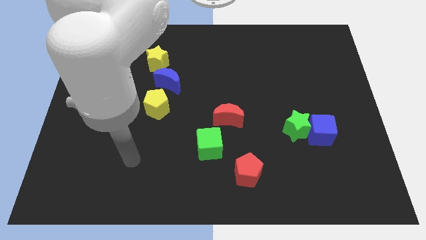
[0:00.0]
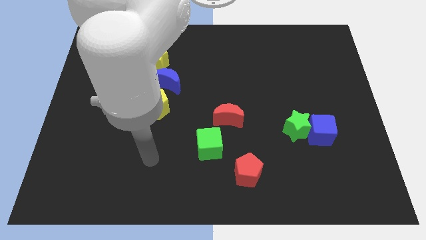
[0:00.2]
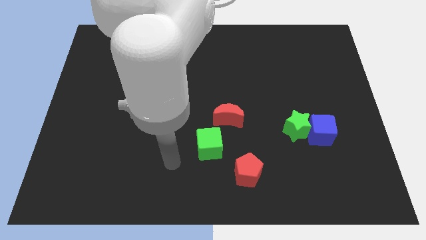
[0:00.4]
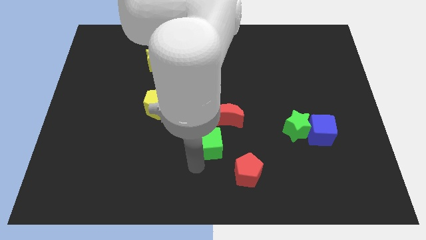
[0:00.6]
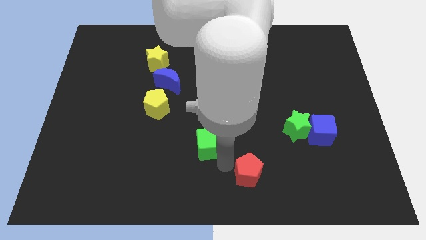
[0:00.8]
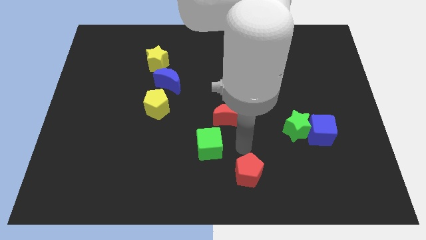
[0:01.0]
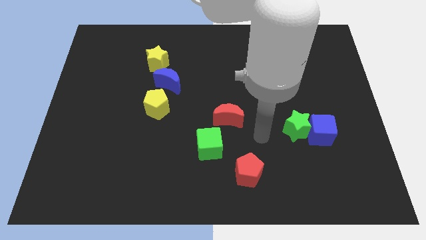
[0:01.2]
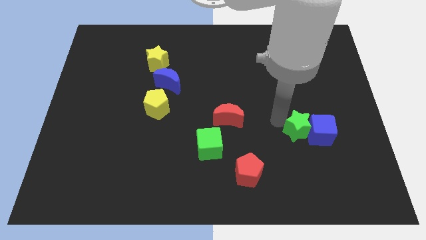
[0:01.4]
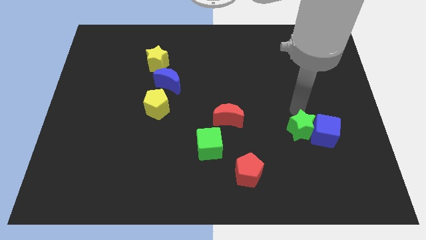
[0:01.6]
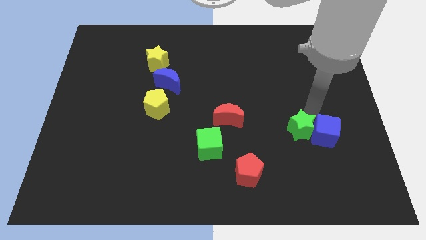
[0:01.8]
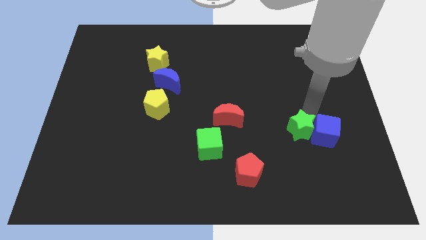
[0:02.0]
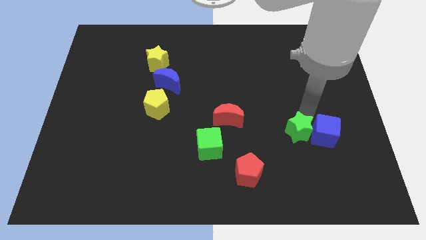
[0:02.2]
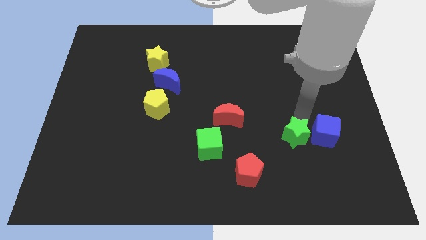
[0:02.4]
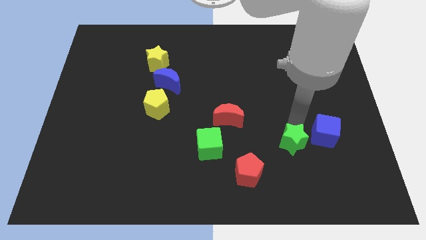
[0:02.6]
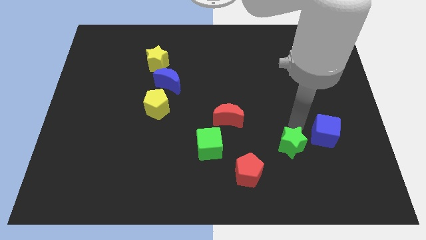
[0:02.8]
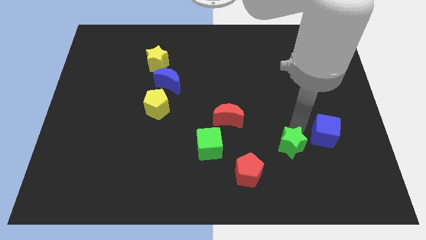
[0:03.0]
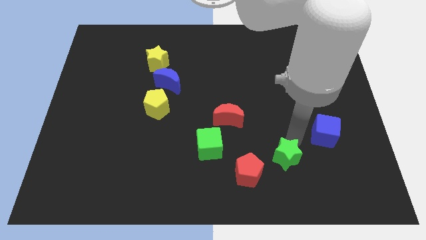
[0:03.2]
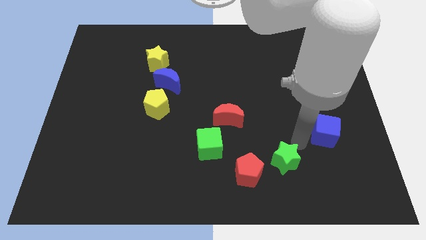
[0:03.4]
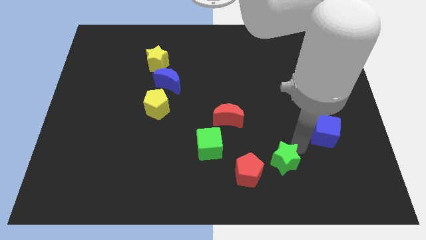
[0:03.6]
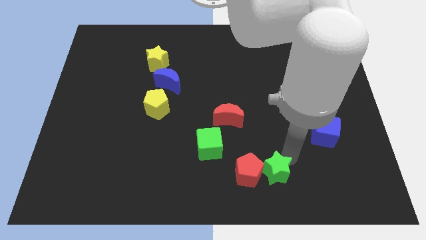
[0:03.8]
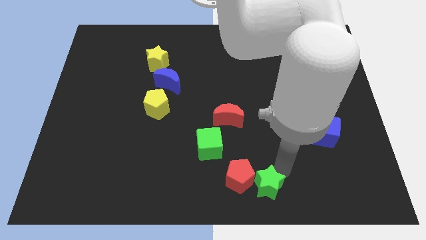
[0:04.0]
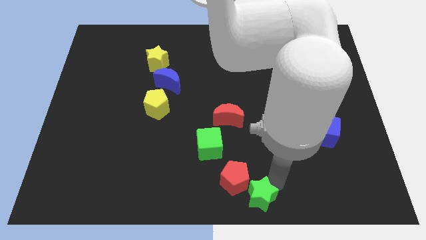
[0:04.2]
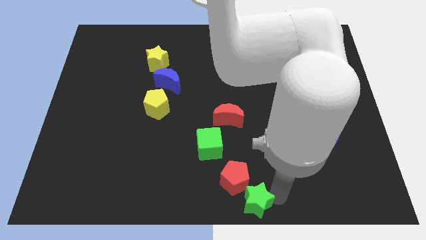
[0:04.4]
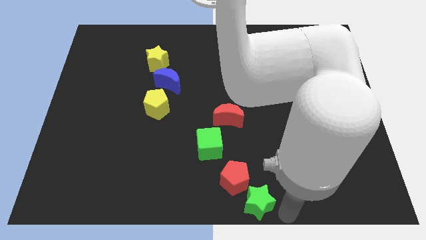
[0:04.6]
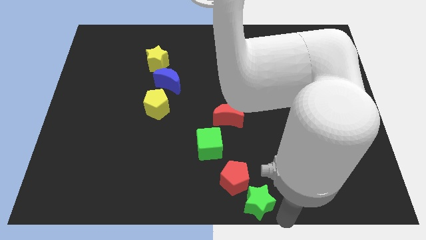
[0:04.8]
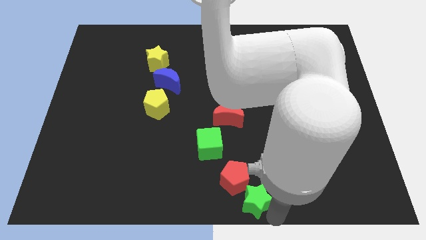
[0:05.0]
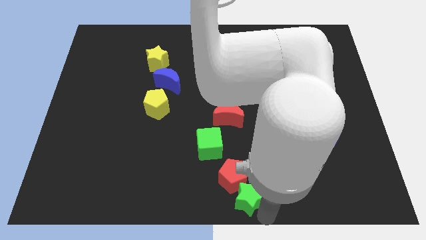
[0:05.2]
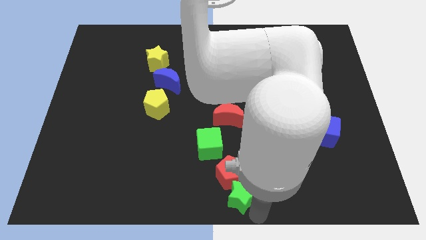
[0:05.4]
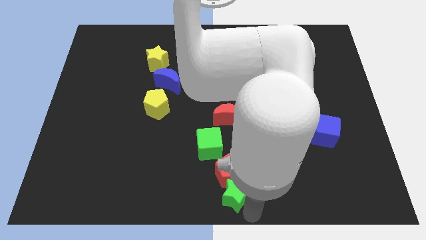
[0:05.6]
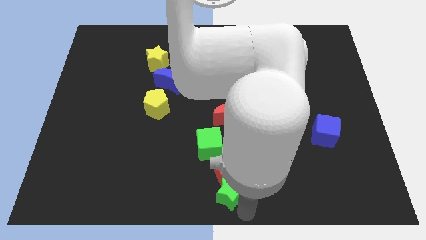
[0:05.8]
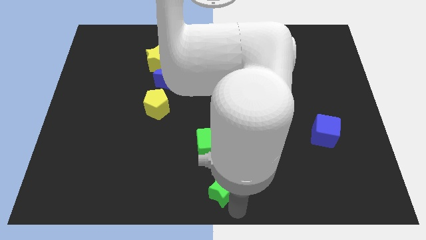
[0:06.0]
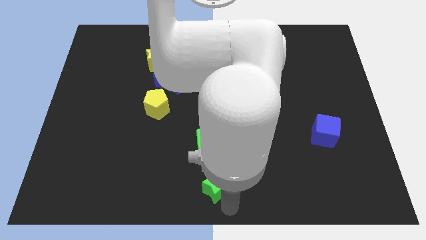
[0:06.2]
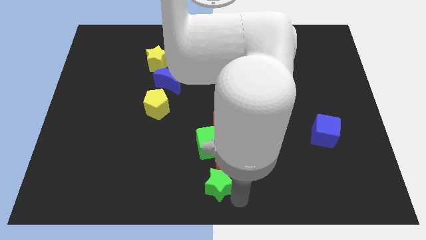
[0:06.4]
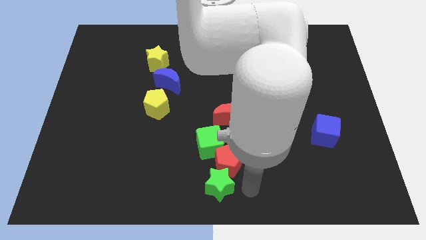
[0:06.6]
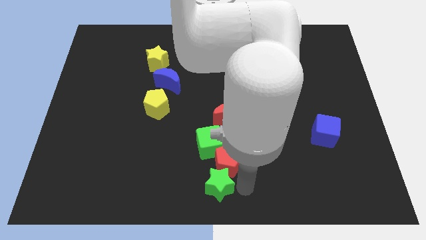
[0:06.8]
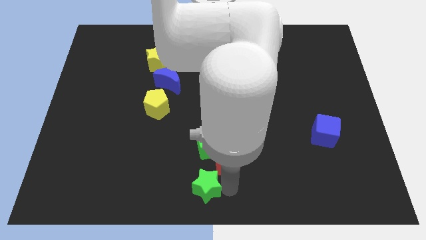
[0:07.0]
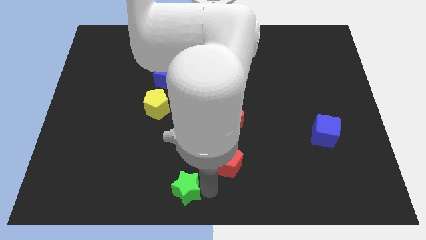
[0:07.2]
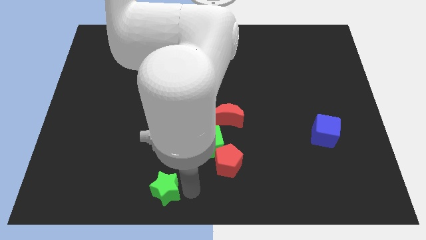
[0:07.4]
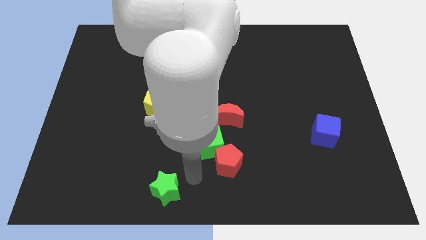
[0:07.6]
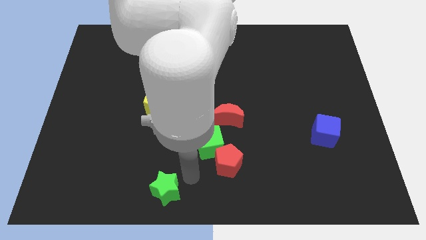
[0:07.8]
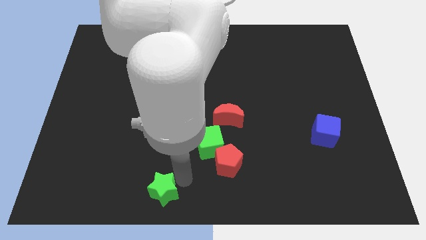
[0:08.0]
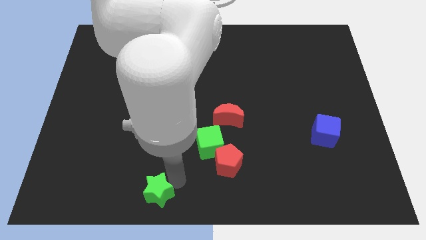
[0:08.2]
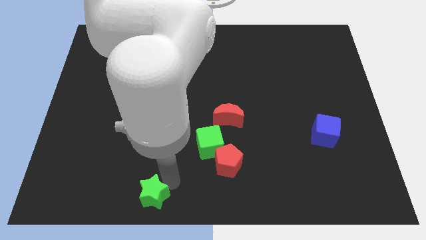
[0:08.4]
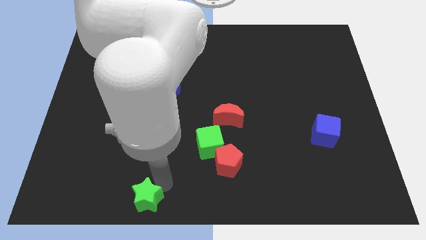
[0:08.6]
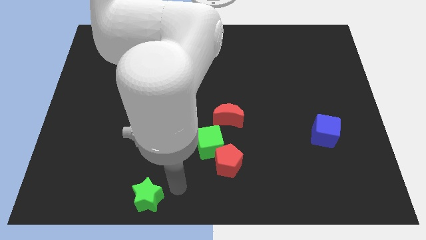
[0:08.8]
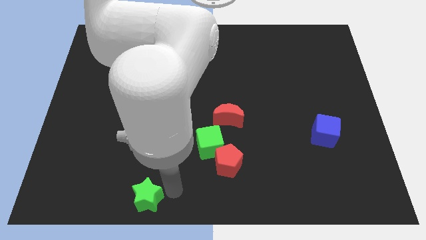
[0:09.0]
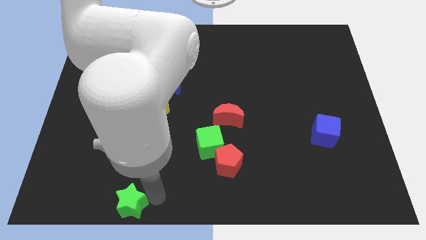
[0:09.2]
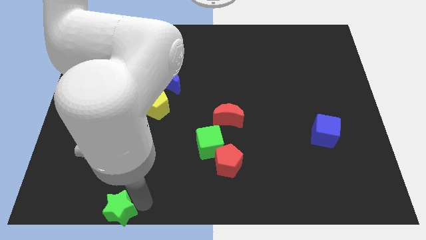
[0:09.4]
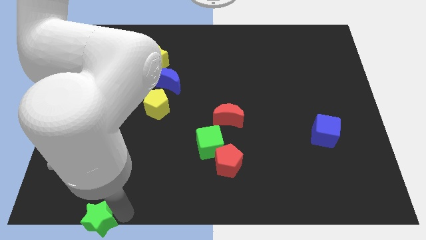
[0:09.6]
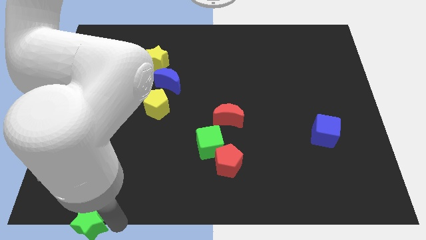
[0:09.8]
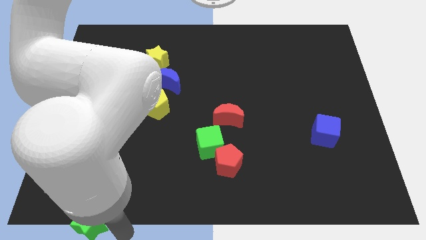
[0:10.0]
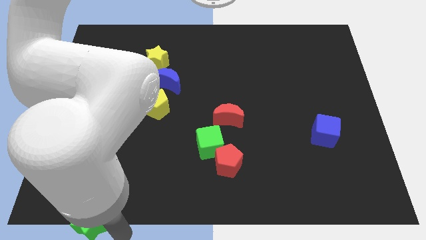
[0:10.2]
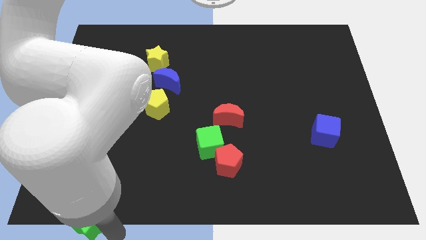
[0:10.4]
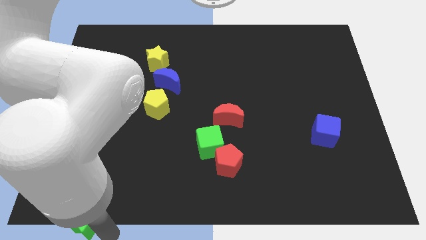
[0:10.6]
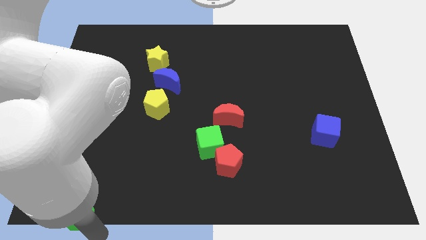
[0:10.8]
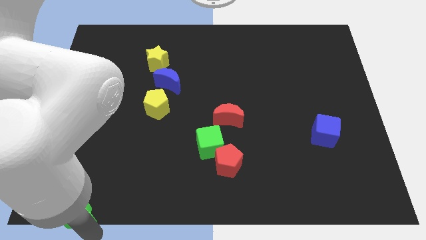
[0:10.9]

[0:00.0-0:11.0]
push the green star to the bottom left

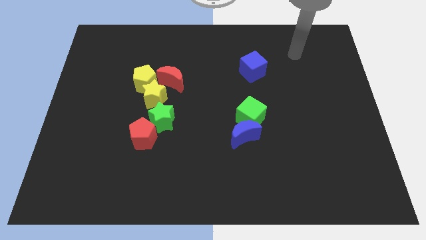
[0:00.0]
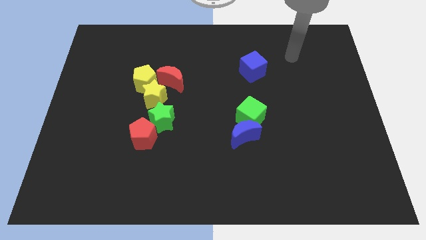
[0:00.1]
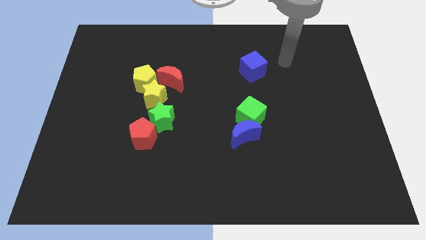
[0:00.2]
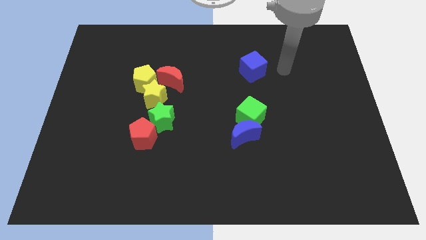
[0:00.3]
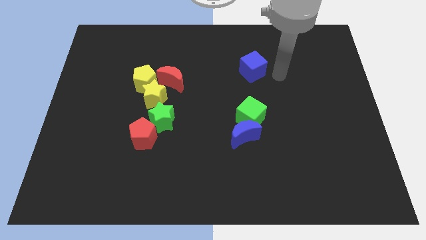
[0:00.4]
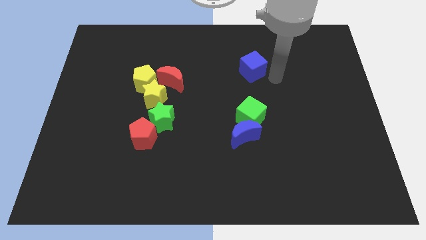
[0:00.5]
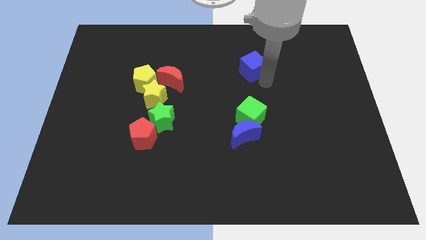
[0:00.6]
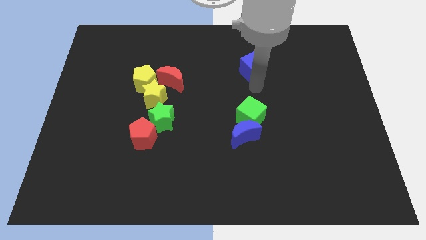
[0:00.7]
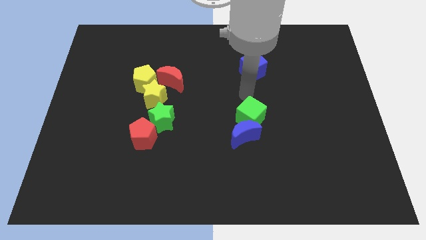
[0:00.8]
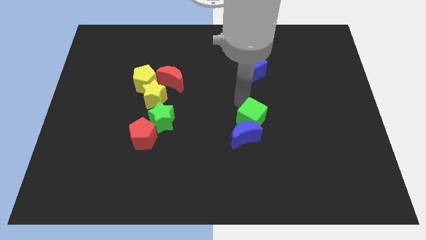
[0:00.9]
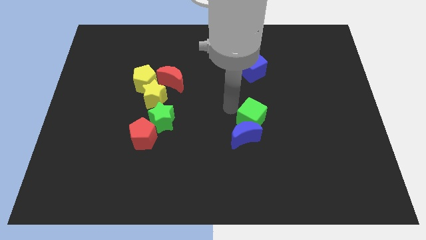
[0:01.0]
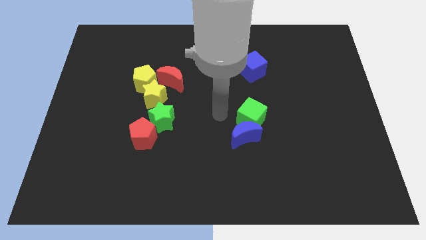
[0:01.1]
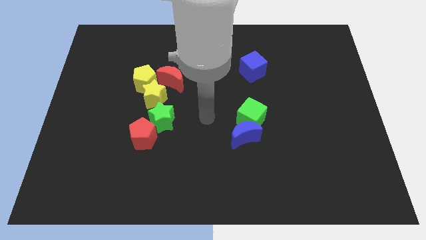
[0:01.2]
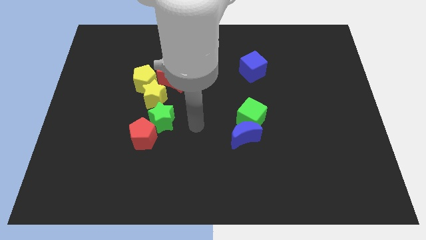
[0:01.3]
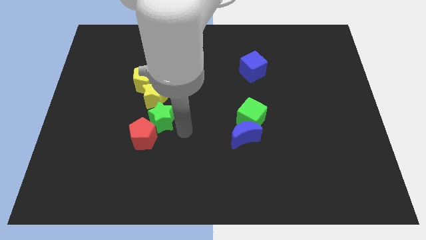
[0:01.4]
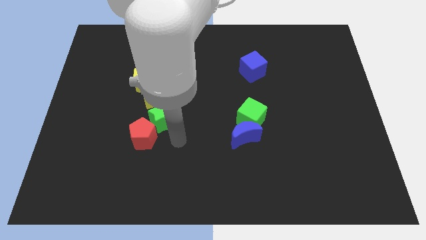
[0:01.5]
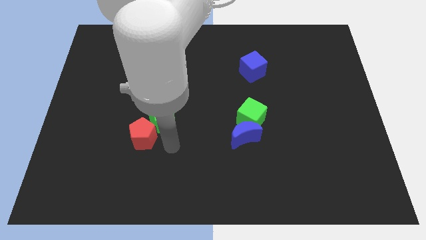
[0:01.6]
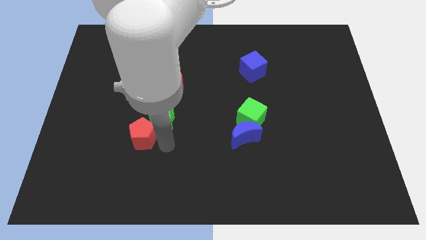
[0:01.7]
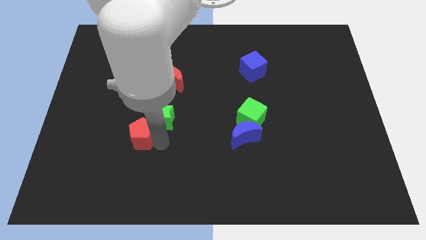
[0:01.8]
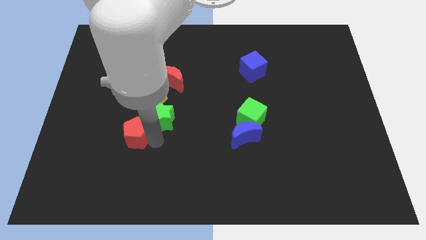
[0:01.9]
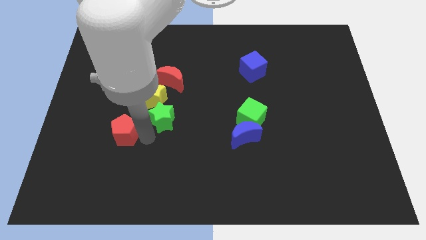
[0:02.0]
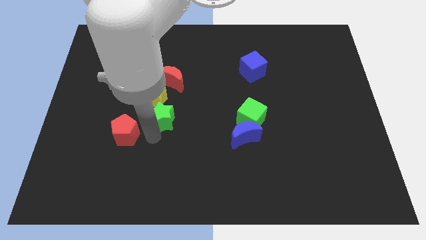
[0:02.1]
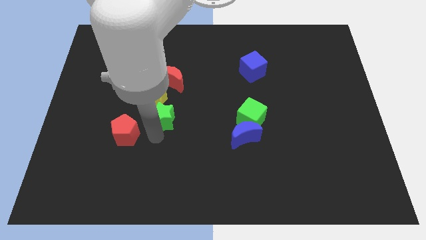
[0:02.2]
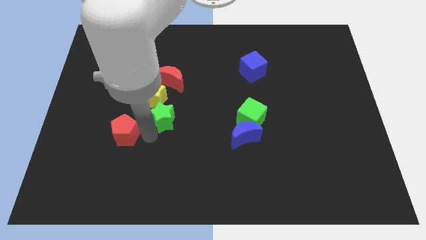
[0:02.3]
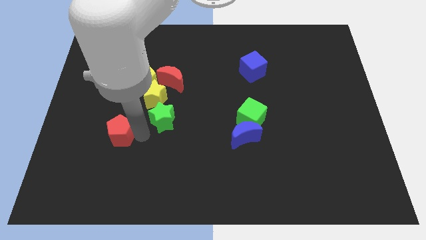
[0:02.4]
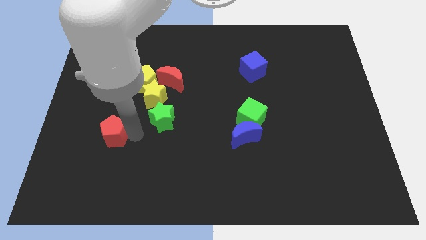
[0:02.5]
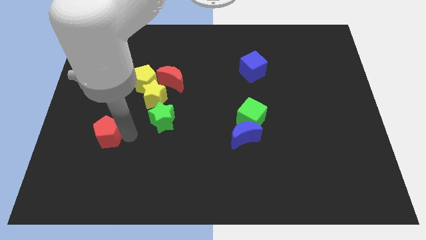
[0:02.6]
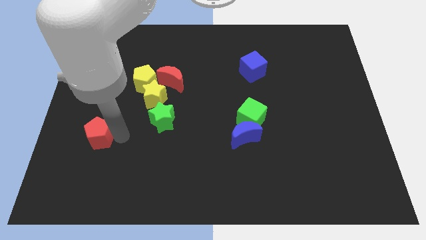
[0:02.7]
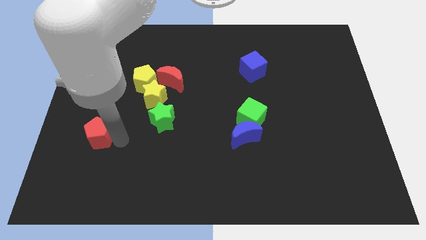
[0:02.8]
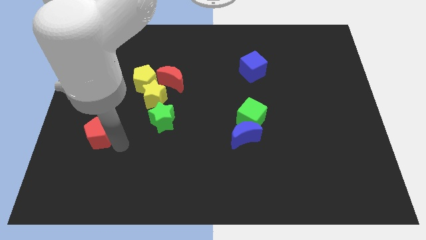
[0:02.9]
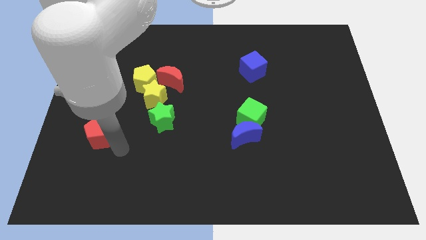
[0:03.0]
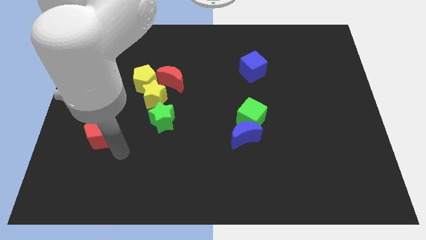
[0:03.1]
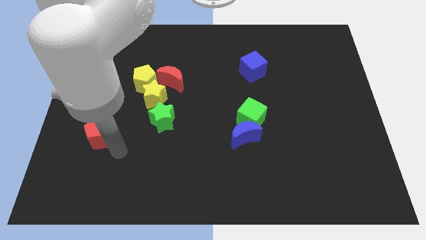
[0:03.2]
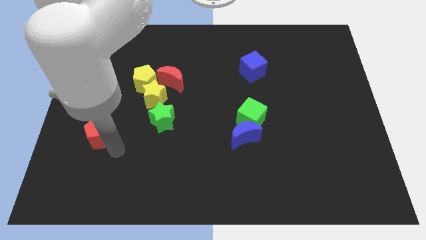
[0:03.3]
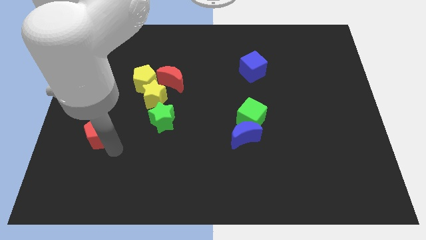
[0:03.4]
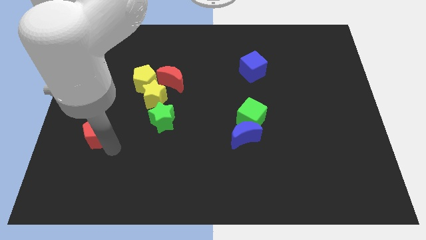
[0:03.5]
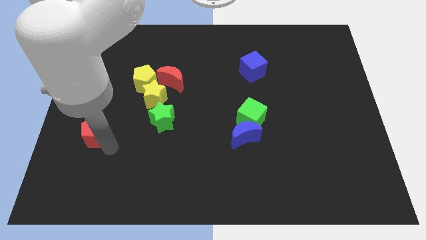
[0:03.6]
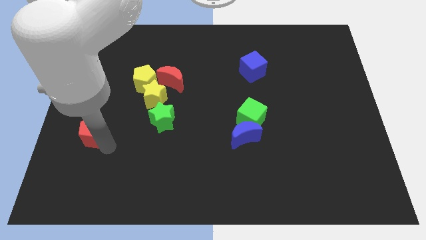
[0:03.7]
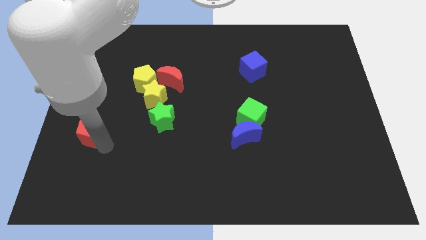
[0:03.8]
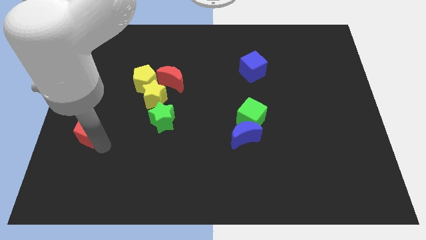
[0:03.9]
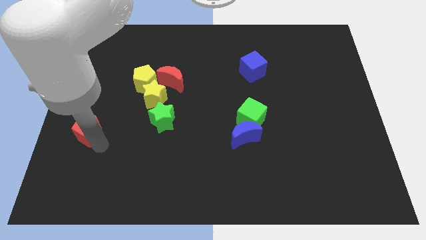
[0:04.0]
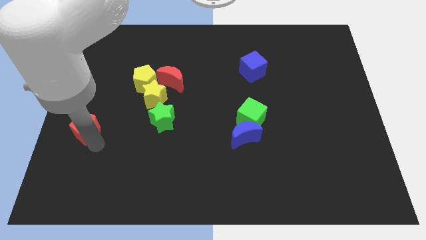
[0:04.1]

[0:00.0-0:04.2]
move the red pentagon to the left side of the board
